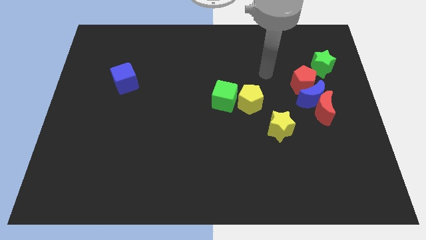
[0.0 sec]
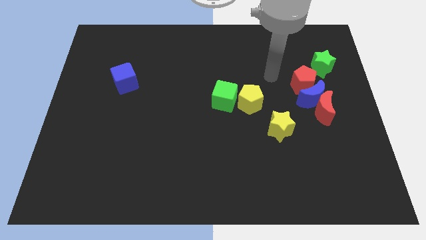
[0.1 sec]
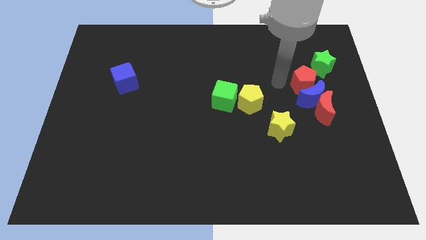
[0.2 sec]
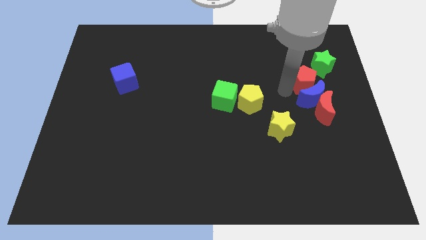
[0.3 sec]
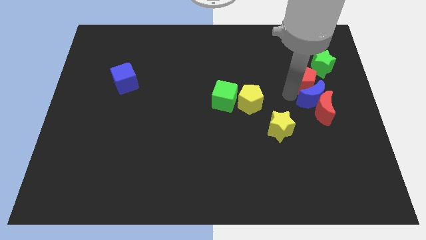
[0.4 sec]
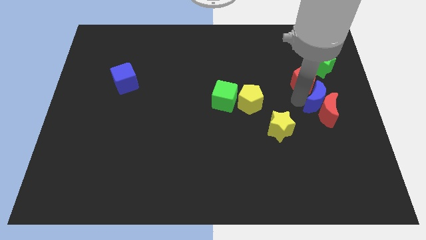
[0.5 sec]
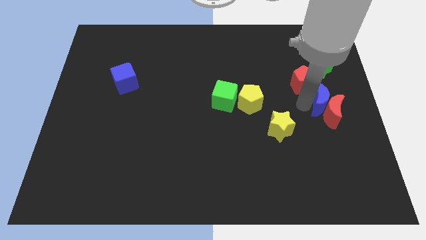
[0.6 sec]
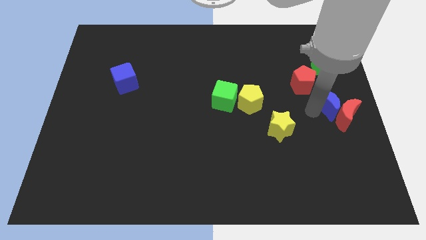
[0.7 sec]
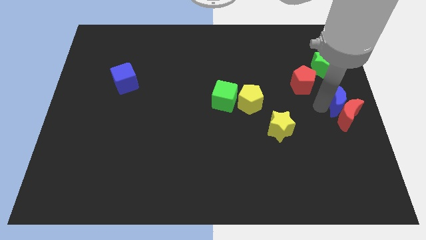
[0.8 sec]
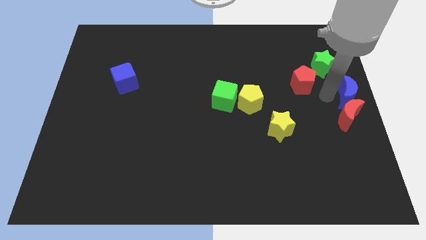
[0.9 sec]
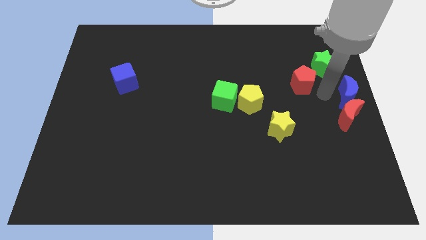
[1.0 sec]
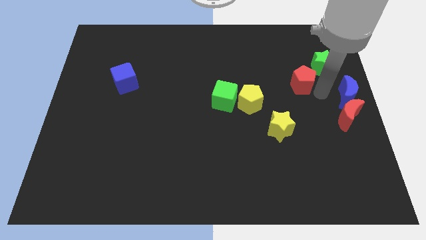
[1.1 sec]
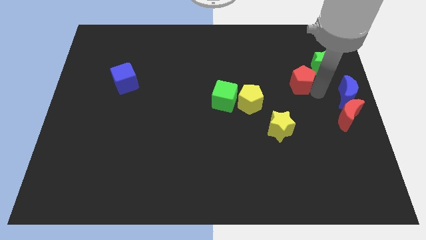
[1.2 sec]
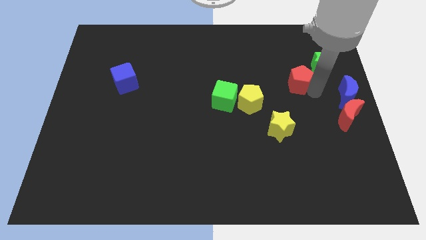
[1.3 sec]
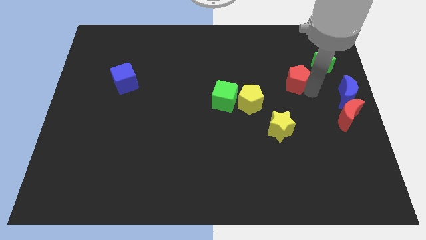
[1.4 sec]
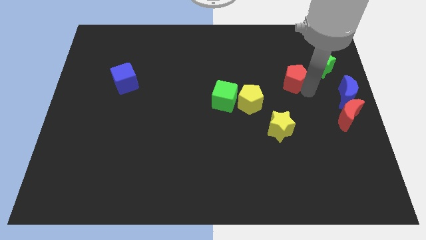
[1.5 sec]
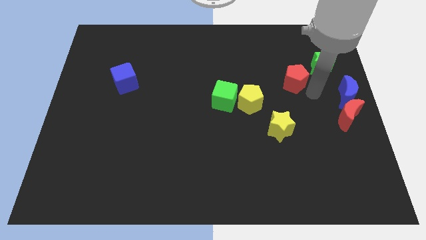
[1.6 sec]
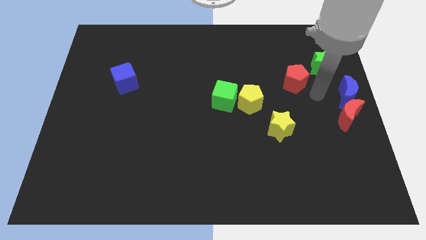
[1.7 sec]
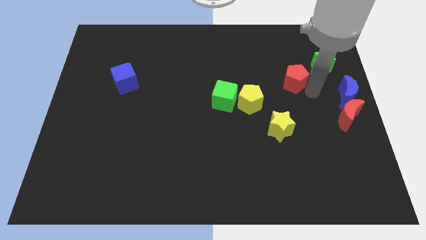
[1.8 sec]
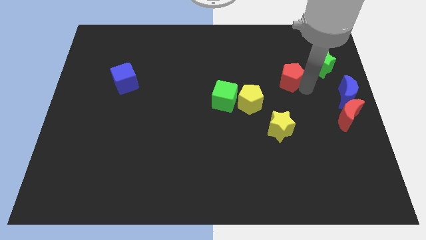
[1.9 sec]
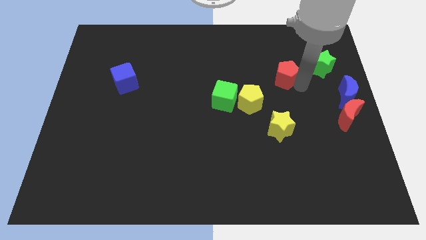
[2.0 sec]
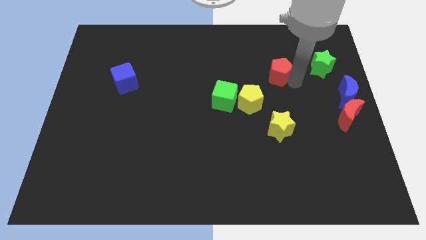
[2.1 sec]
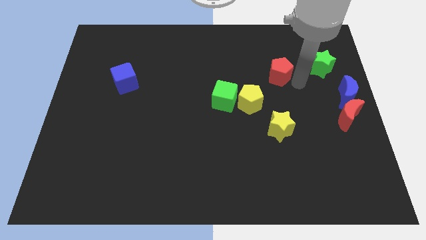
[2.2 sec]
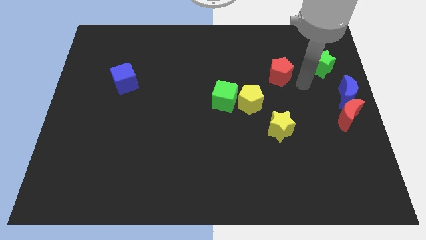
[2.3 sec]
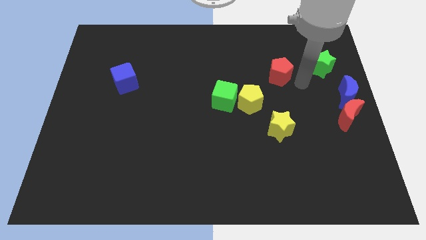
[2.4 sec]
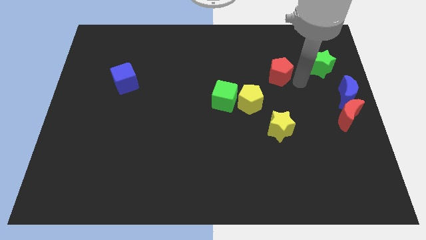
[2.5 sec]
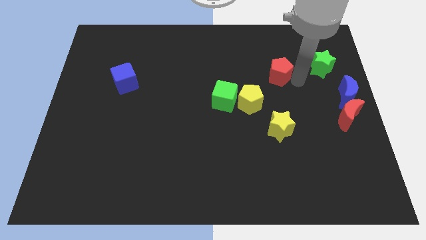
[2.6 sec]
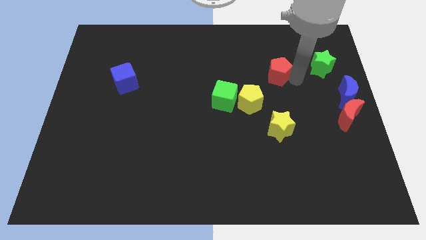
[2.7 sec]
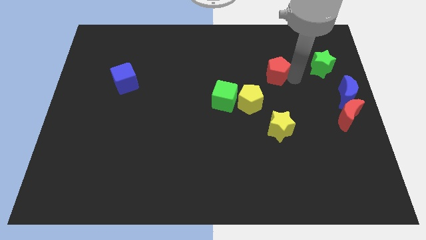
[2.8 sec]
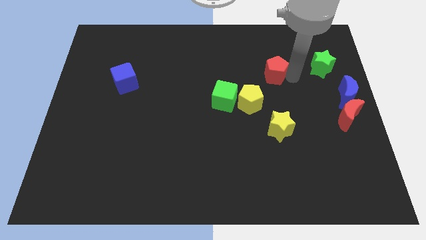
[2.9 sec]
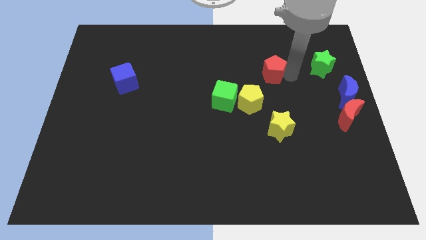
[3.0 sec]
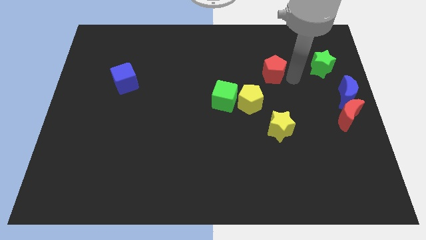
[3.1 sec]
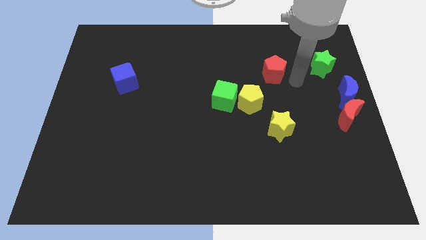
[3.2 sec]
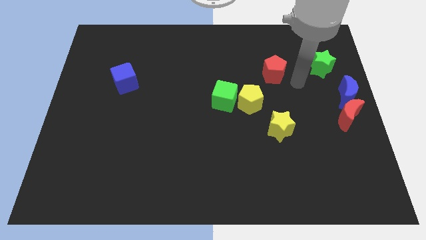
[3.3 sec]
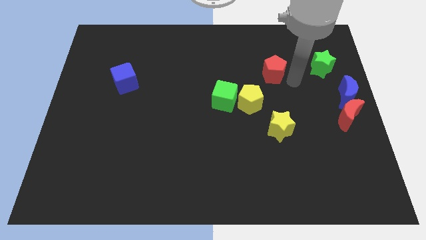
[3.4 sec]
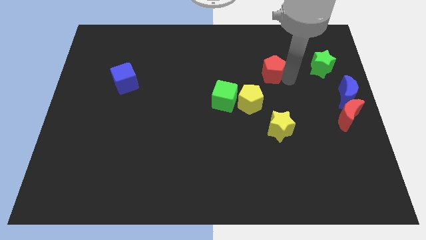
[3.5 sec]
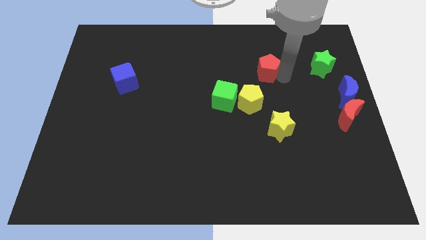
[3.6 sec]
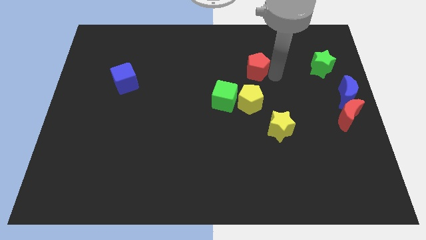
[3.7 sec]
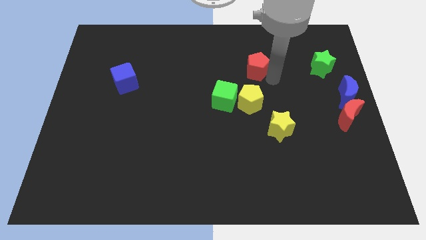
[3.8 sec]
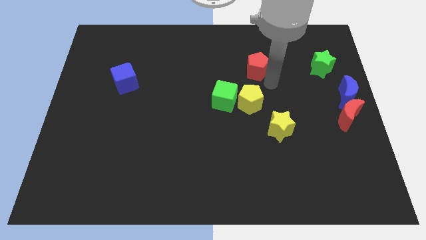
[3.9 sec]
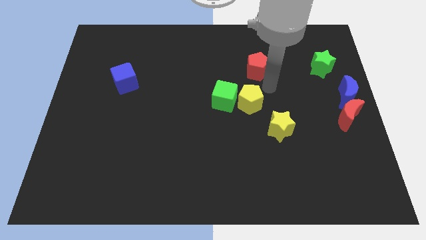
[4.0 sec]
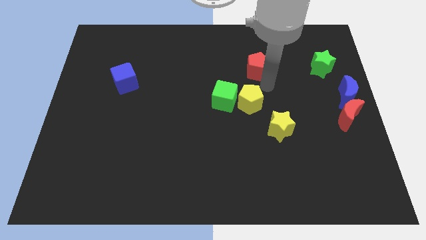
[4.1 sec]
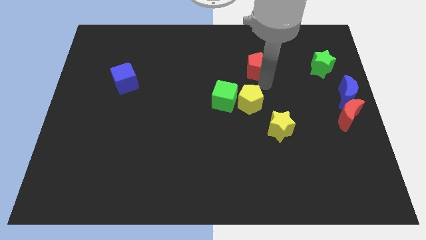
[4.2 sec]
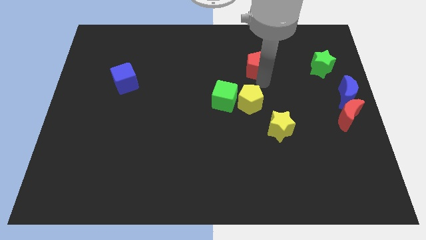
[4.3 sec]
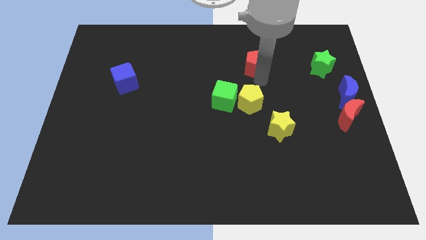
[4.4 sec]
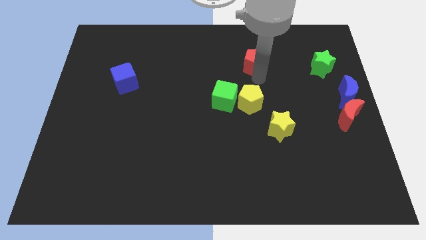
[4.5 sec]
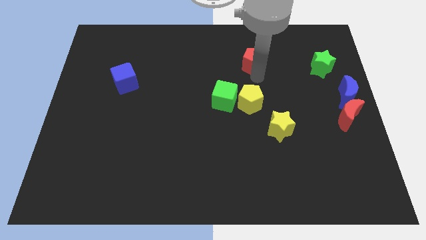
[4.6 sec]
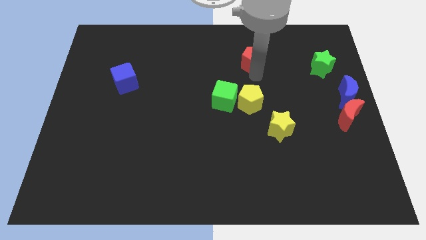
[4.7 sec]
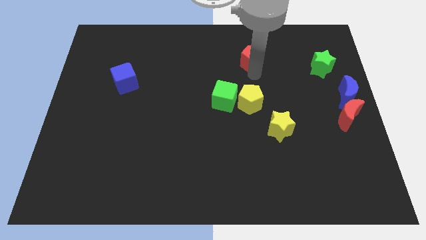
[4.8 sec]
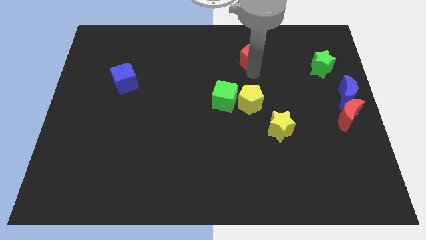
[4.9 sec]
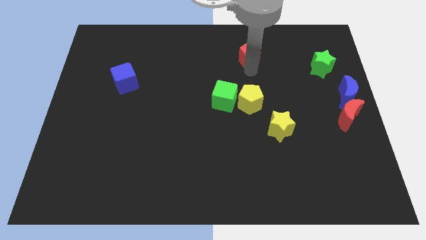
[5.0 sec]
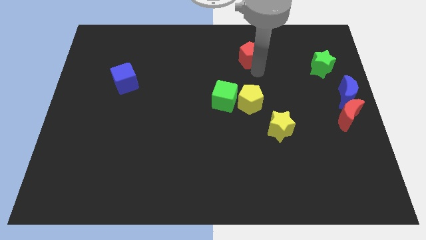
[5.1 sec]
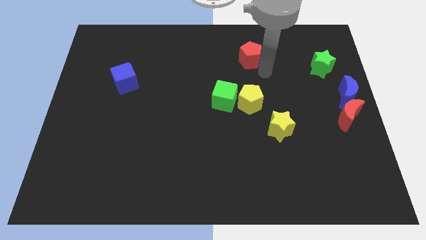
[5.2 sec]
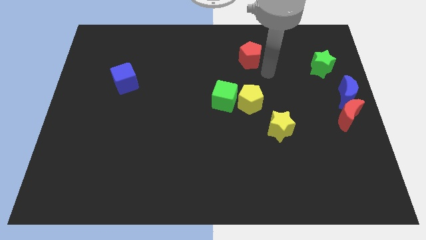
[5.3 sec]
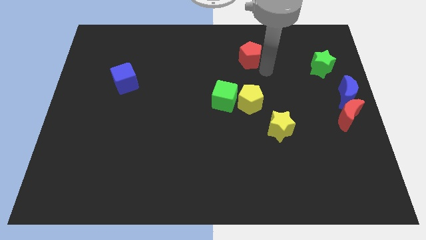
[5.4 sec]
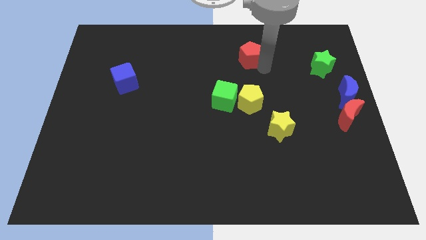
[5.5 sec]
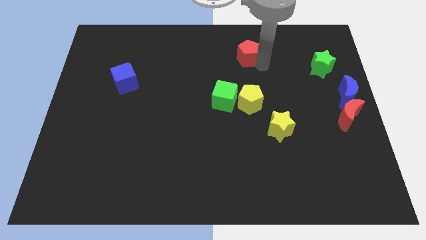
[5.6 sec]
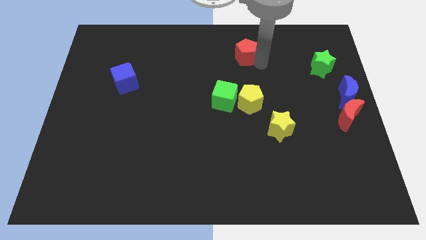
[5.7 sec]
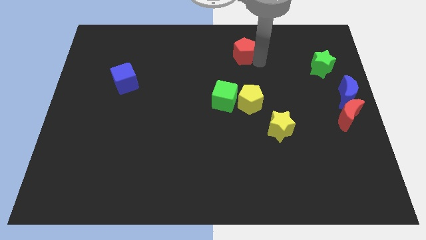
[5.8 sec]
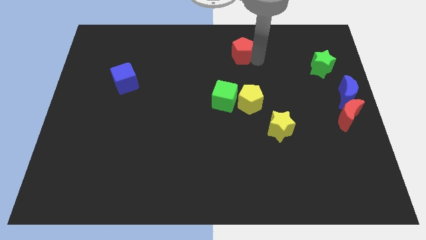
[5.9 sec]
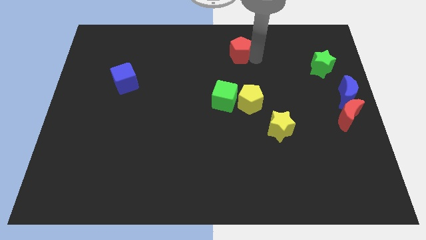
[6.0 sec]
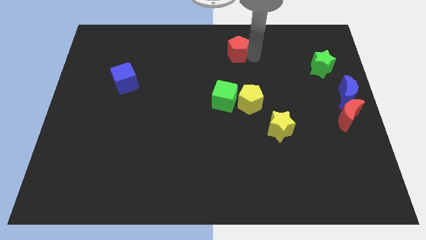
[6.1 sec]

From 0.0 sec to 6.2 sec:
slide the red pentagon to the top
